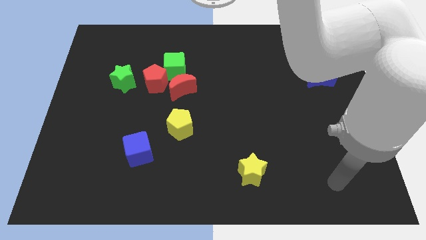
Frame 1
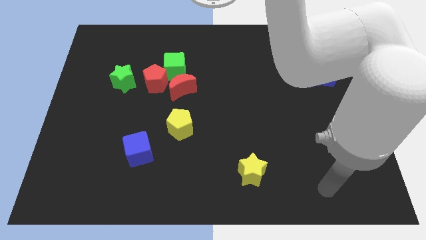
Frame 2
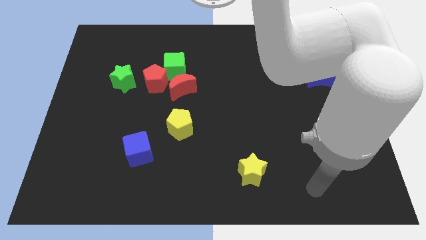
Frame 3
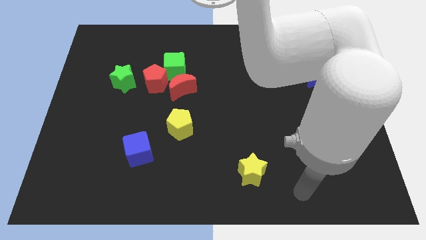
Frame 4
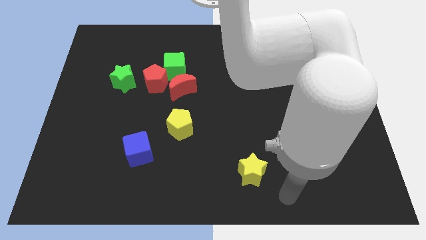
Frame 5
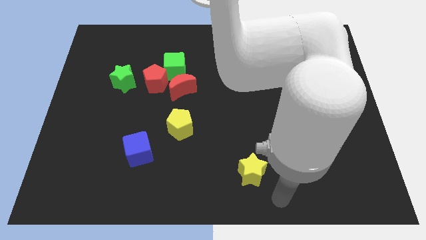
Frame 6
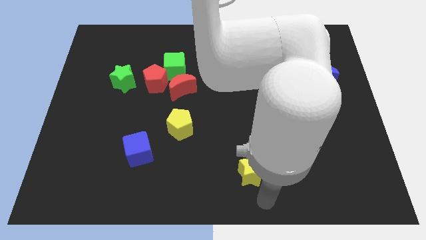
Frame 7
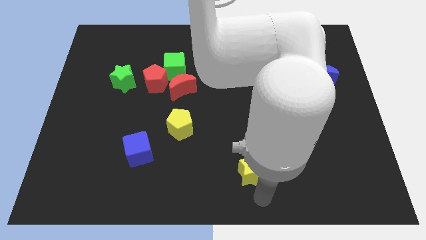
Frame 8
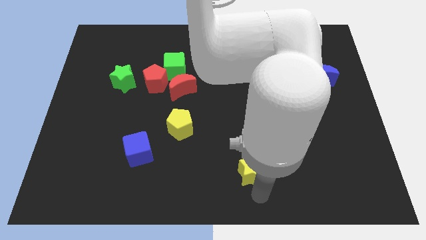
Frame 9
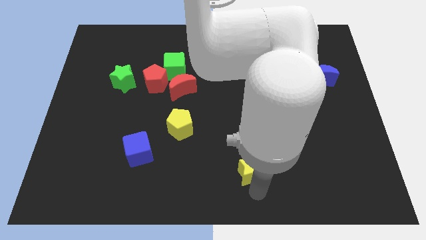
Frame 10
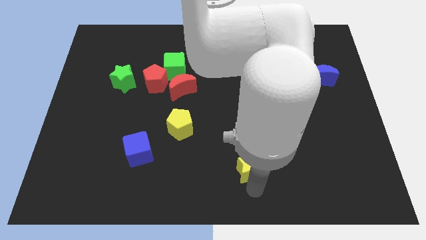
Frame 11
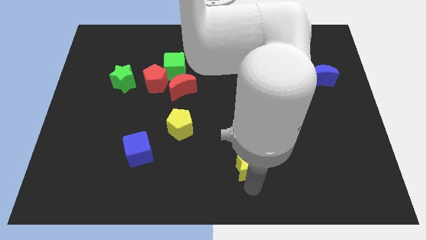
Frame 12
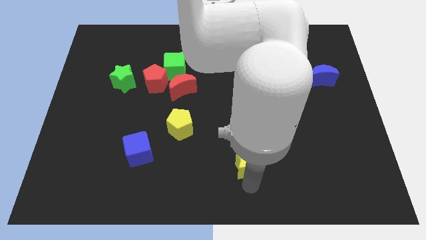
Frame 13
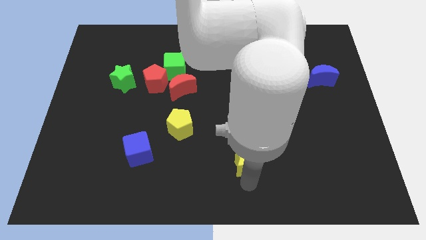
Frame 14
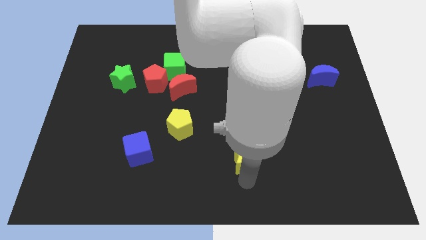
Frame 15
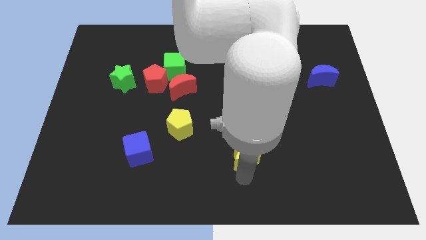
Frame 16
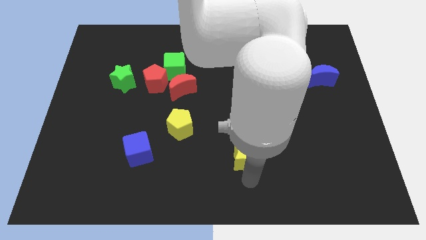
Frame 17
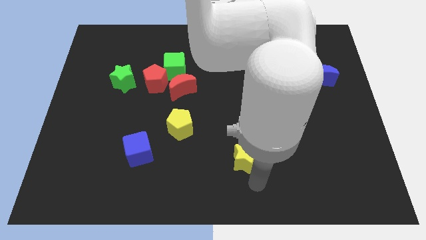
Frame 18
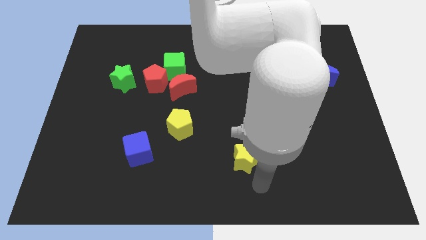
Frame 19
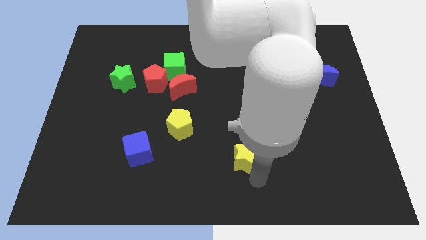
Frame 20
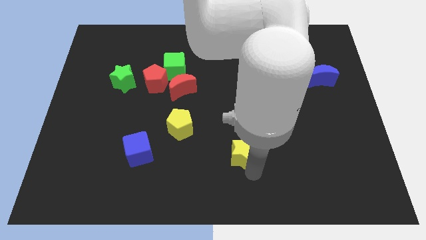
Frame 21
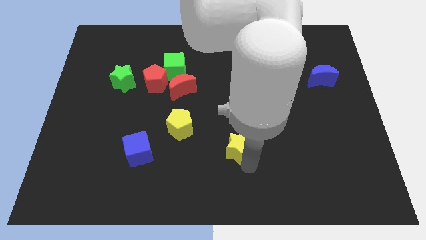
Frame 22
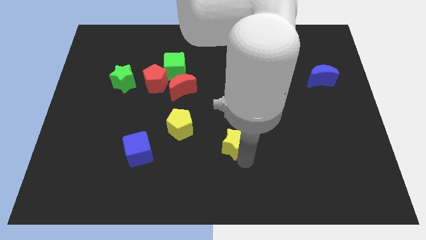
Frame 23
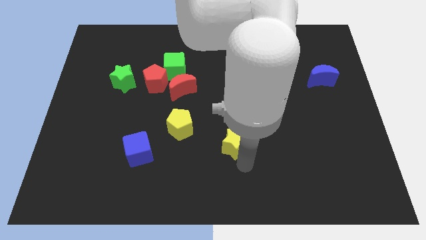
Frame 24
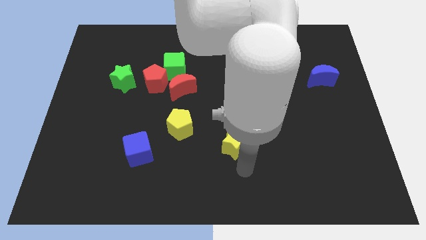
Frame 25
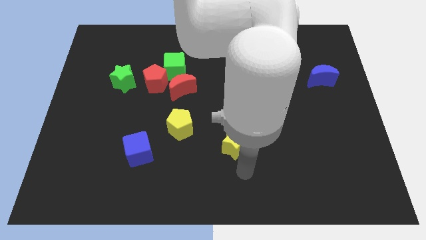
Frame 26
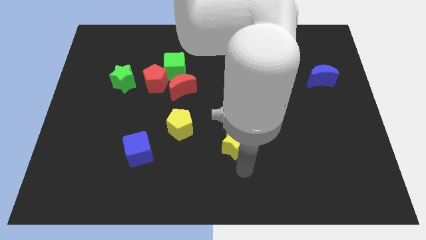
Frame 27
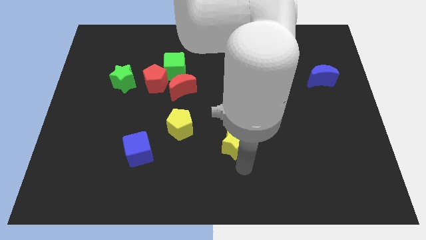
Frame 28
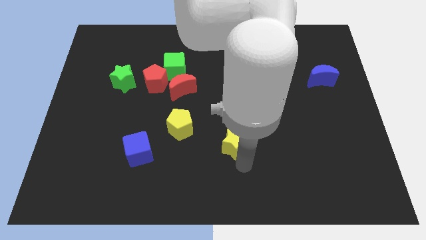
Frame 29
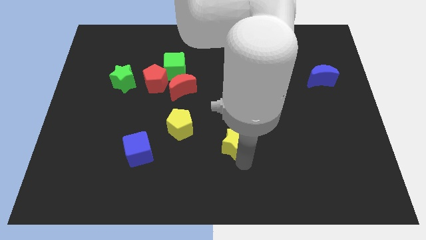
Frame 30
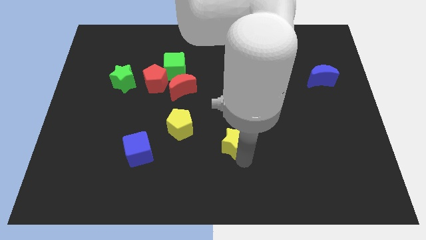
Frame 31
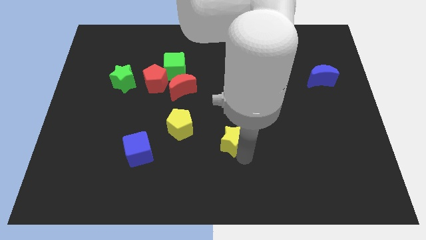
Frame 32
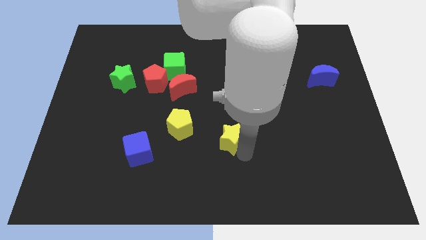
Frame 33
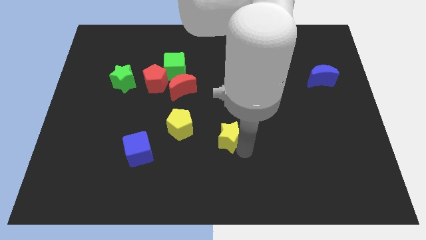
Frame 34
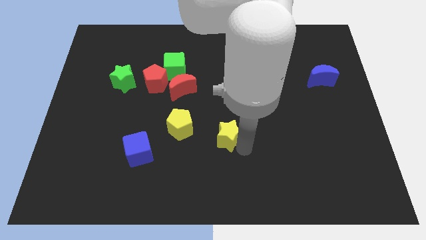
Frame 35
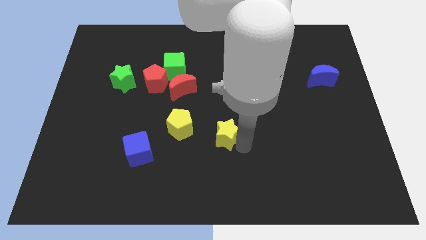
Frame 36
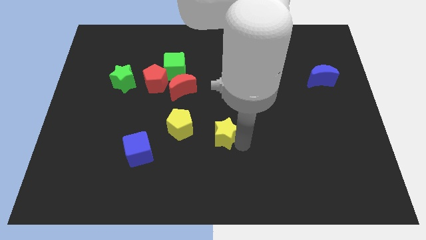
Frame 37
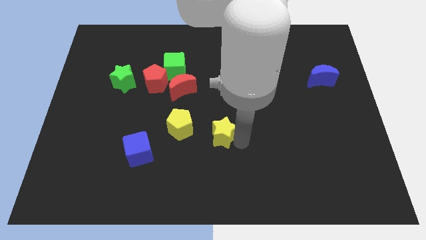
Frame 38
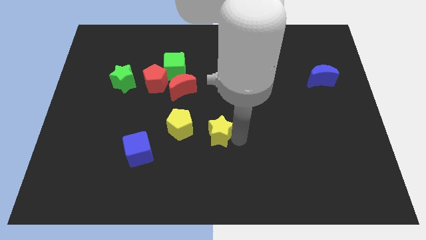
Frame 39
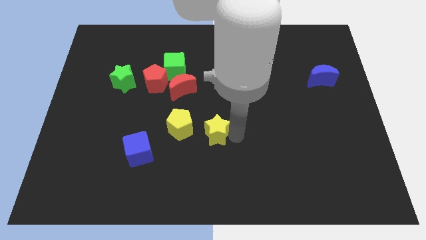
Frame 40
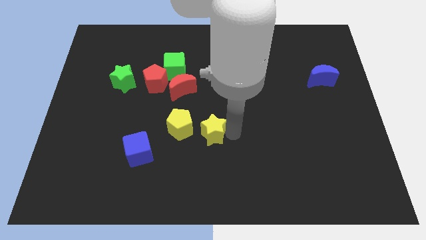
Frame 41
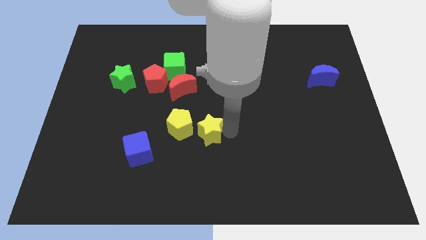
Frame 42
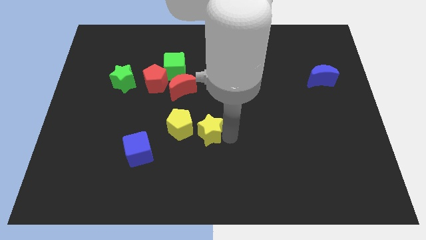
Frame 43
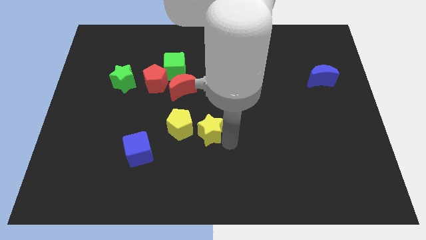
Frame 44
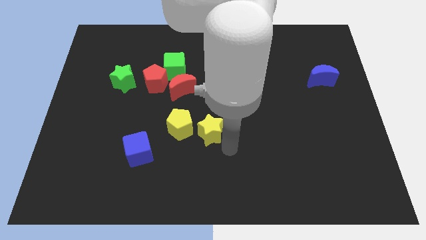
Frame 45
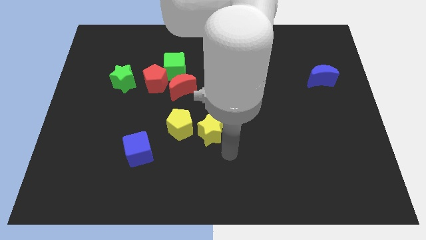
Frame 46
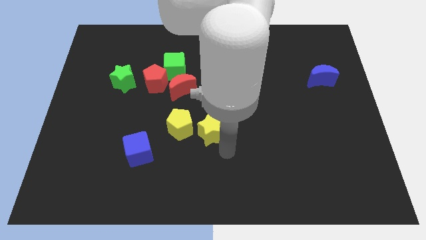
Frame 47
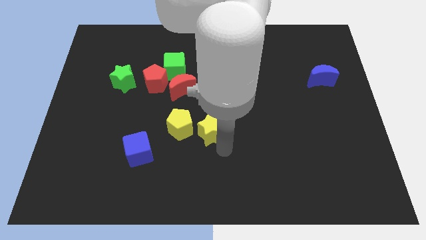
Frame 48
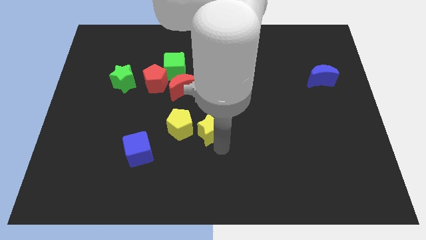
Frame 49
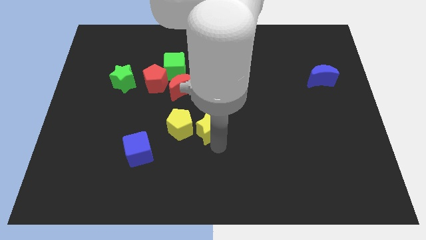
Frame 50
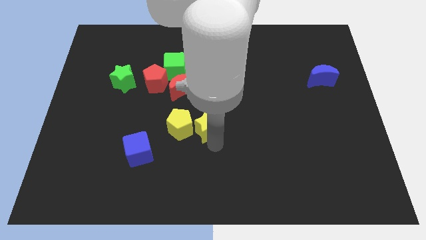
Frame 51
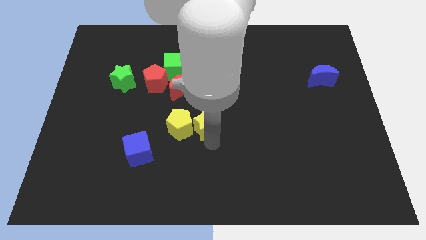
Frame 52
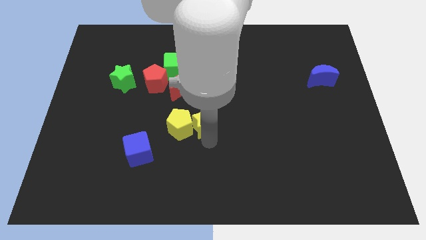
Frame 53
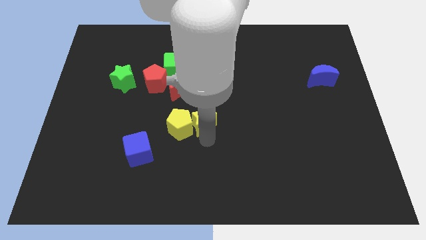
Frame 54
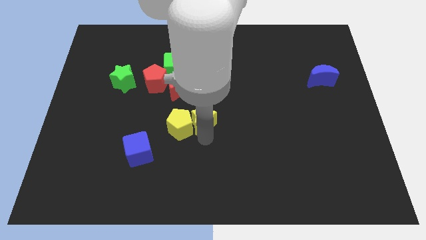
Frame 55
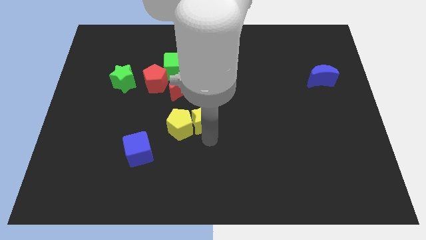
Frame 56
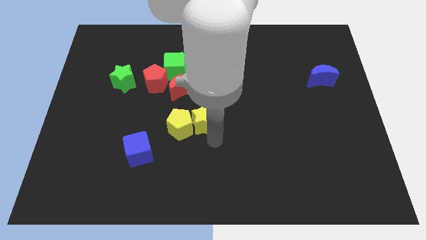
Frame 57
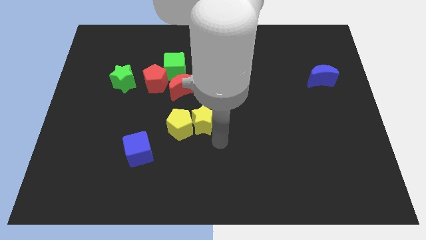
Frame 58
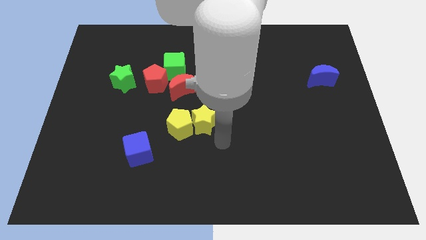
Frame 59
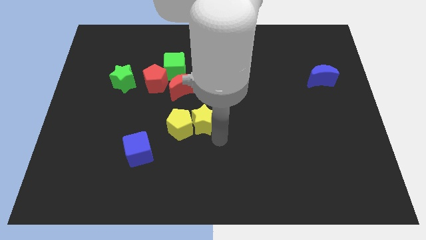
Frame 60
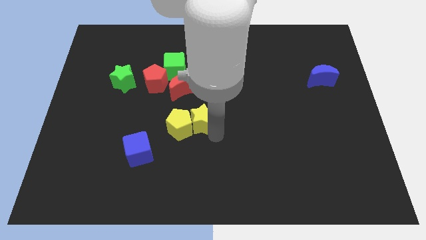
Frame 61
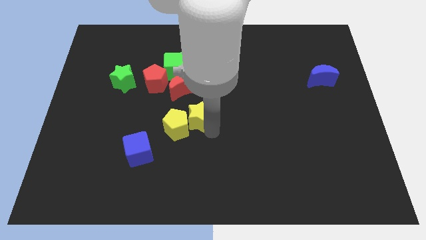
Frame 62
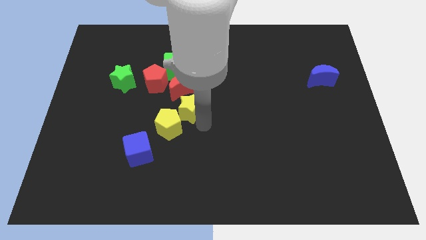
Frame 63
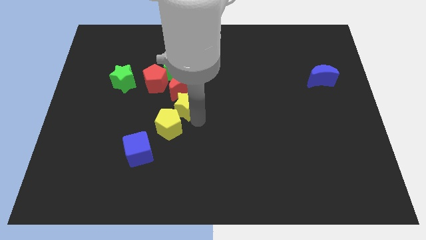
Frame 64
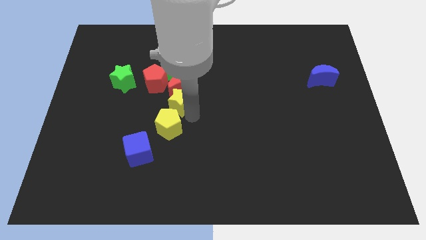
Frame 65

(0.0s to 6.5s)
slide the yellow star close to the red moon

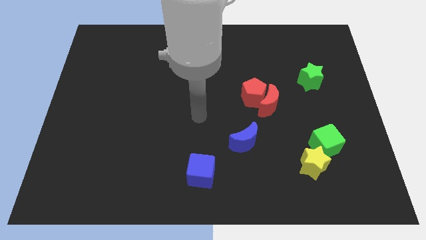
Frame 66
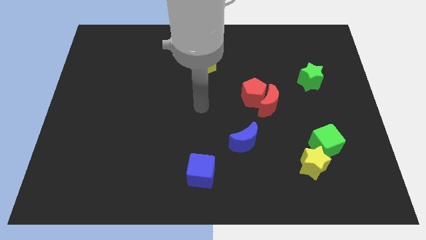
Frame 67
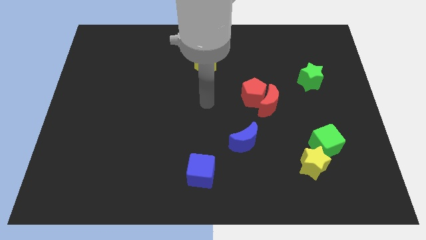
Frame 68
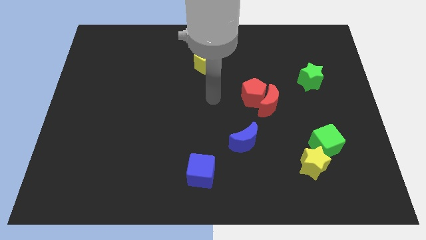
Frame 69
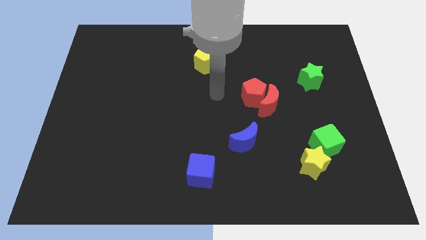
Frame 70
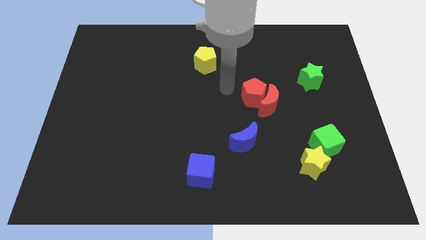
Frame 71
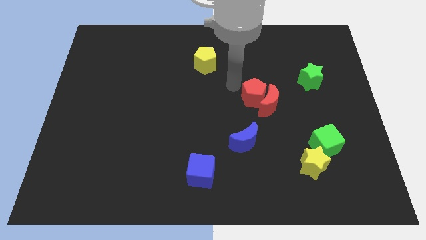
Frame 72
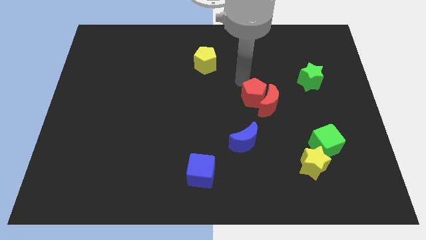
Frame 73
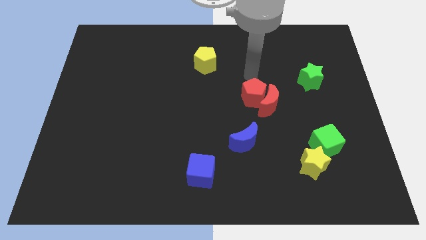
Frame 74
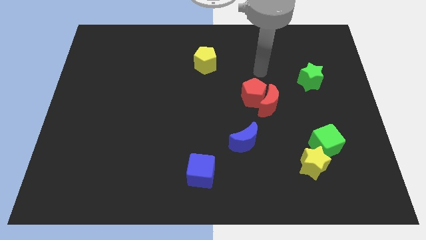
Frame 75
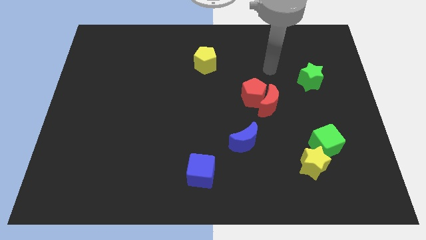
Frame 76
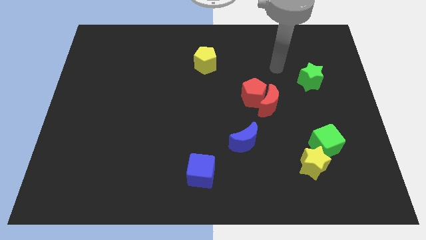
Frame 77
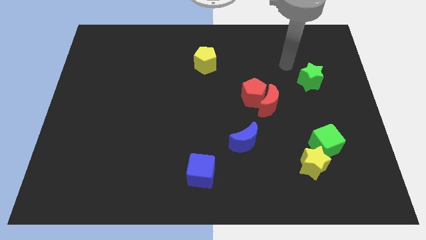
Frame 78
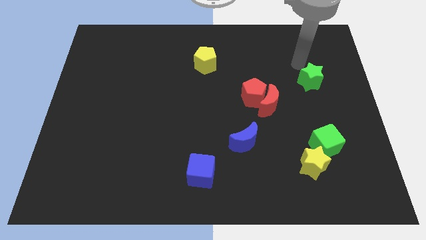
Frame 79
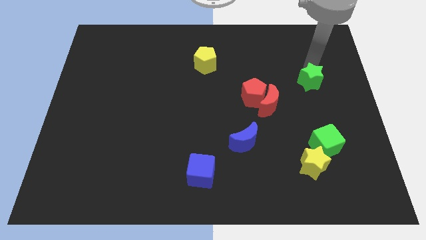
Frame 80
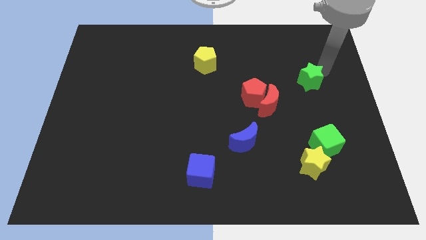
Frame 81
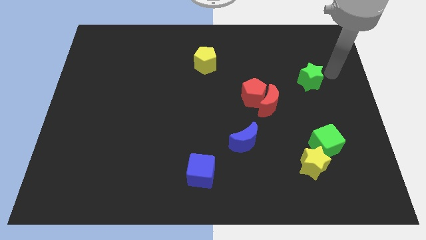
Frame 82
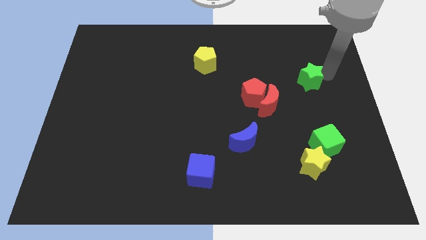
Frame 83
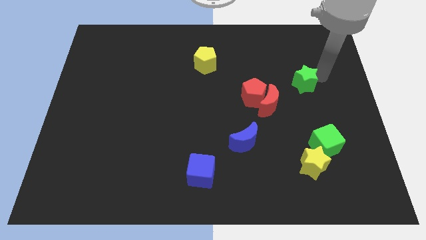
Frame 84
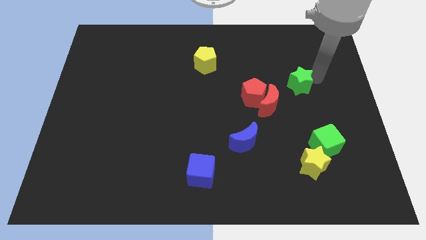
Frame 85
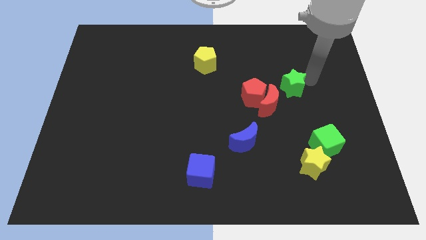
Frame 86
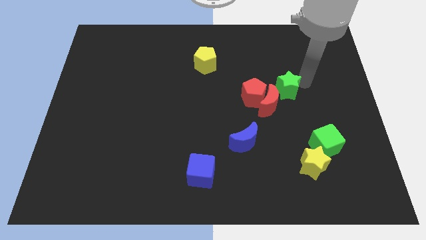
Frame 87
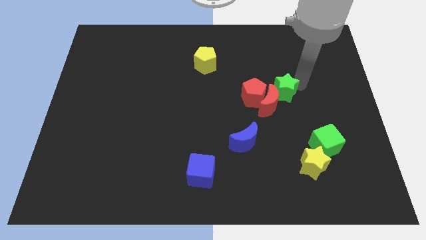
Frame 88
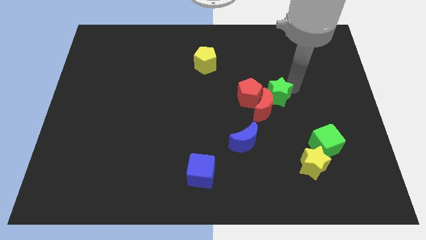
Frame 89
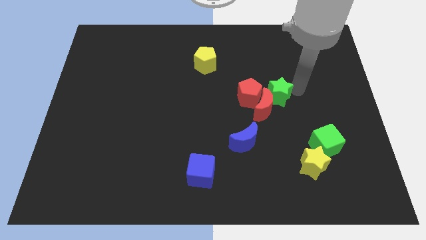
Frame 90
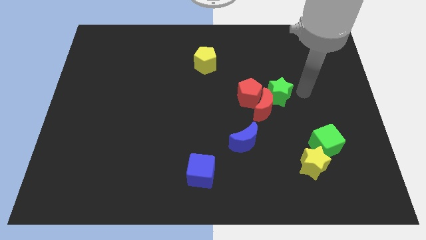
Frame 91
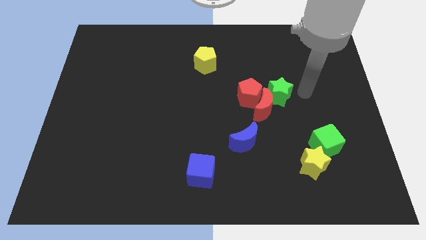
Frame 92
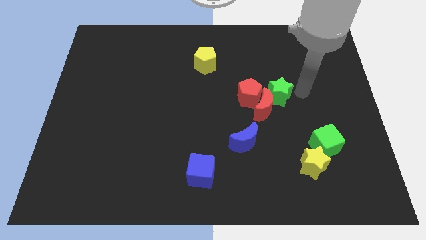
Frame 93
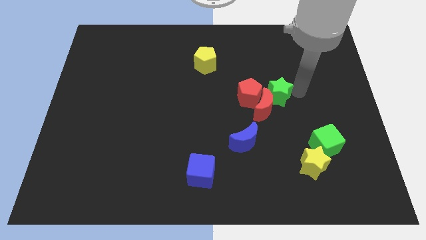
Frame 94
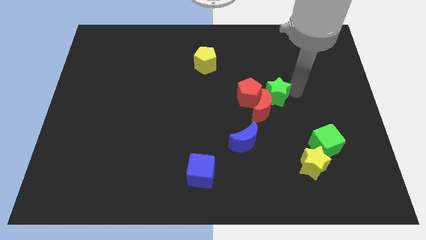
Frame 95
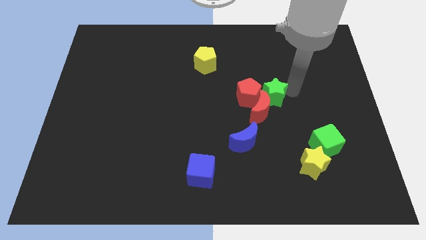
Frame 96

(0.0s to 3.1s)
move the green star next to the red pentagon
